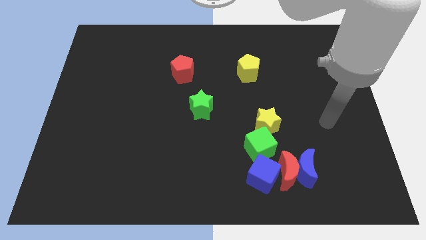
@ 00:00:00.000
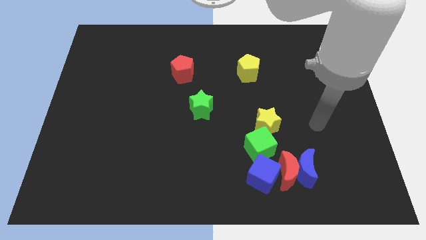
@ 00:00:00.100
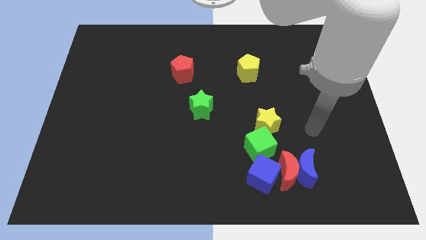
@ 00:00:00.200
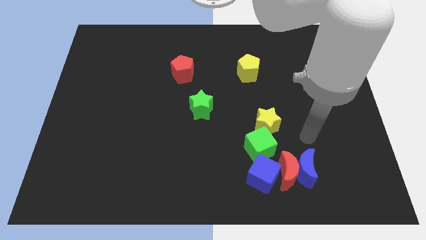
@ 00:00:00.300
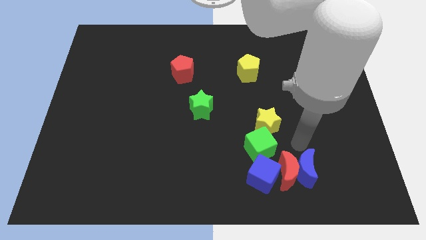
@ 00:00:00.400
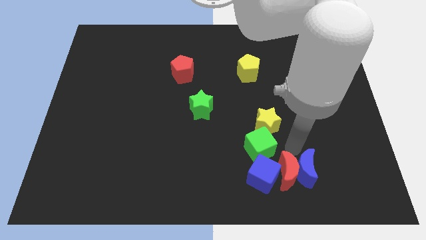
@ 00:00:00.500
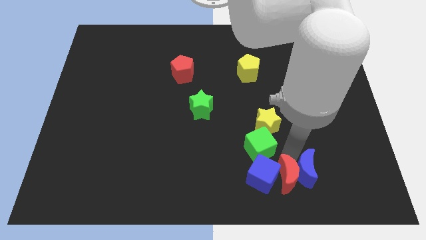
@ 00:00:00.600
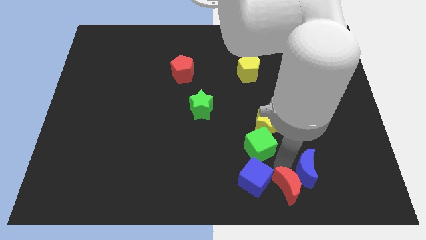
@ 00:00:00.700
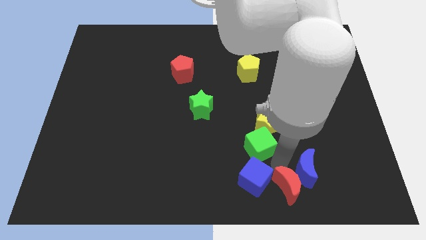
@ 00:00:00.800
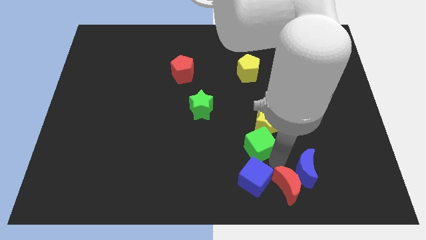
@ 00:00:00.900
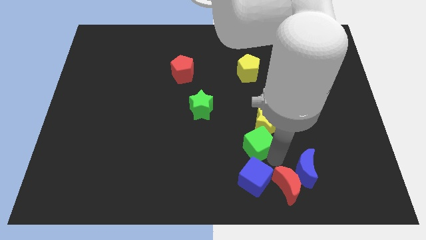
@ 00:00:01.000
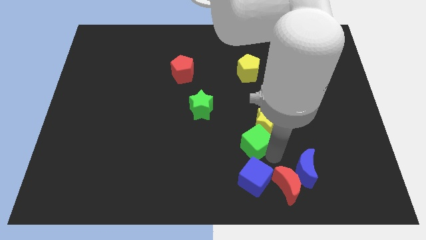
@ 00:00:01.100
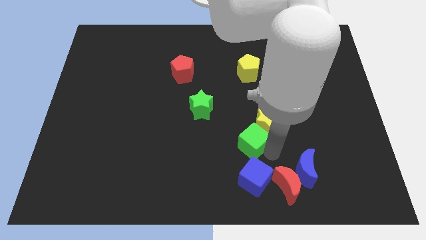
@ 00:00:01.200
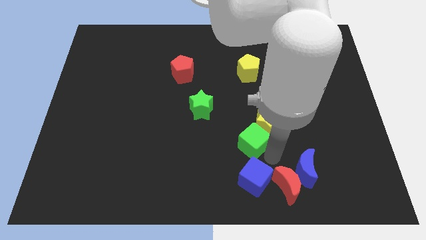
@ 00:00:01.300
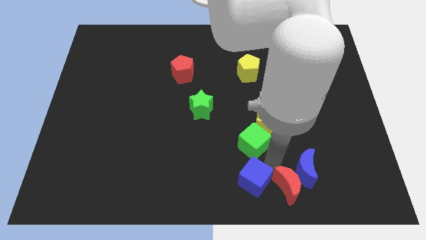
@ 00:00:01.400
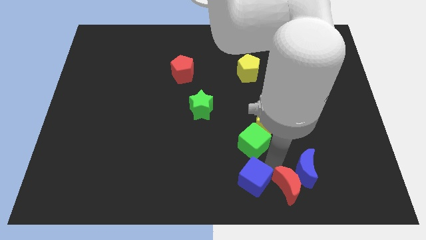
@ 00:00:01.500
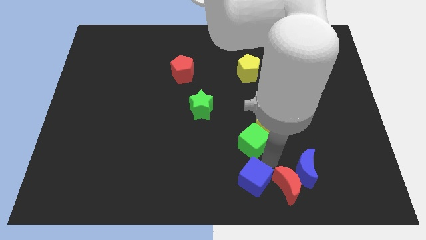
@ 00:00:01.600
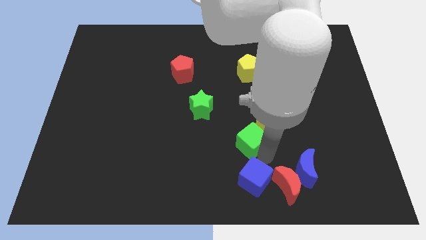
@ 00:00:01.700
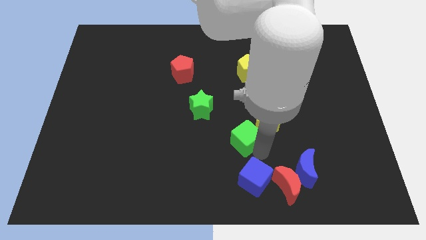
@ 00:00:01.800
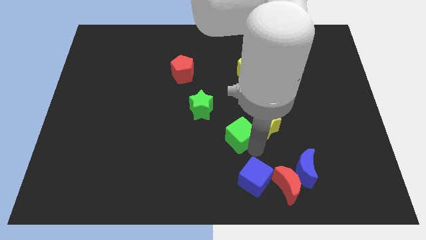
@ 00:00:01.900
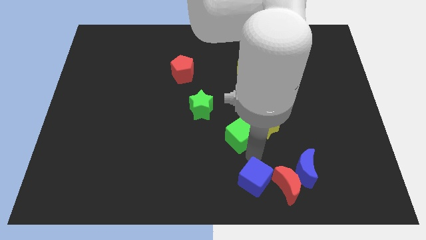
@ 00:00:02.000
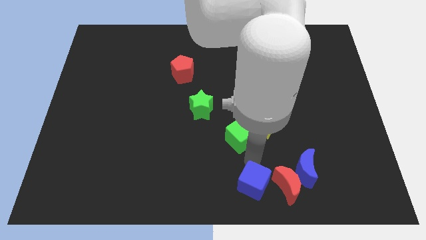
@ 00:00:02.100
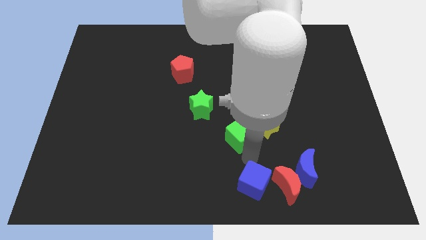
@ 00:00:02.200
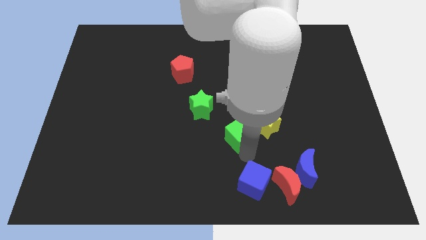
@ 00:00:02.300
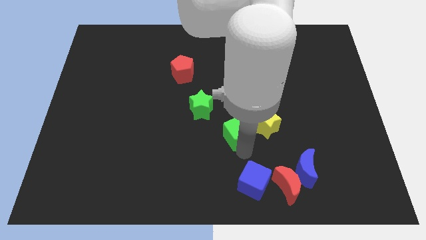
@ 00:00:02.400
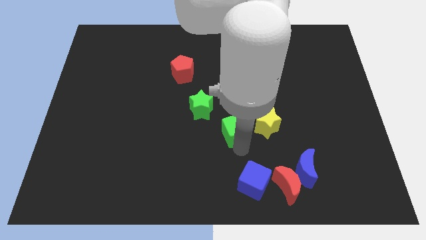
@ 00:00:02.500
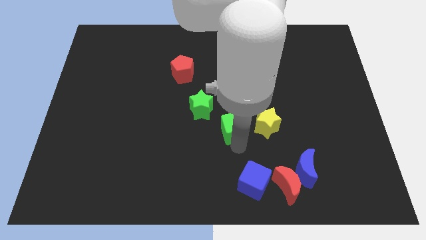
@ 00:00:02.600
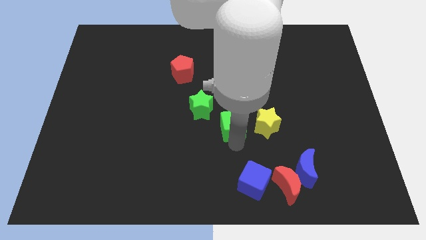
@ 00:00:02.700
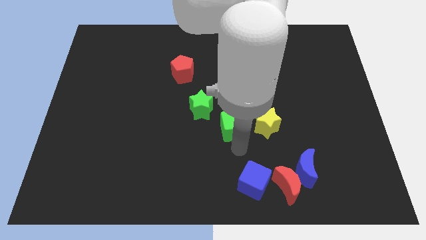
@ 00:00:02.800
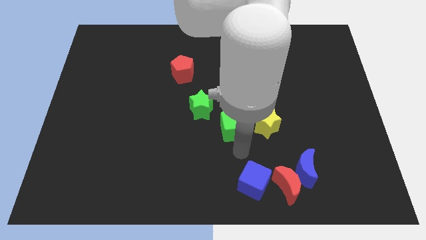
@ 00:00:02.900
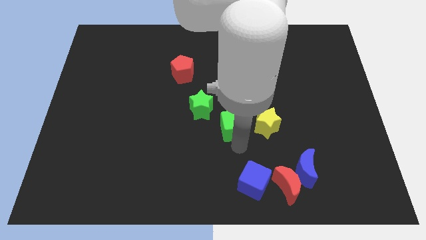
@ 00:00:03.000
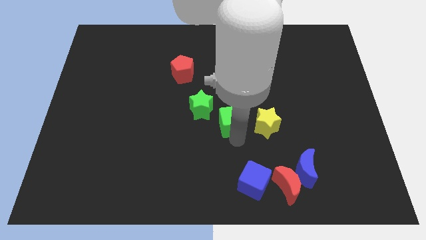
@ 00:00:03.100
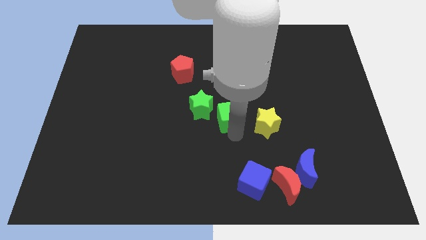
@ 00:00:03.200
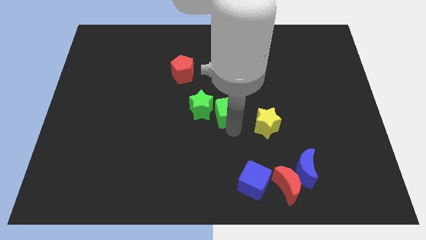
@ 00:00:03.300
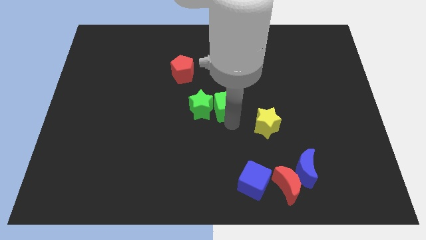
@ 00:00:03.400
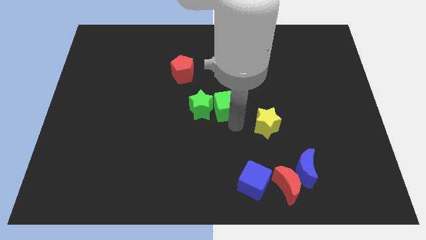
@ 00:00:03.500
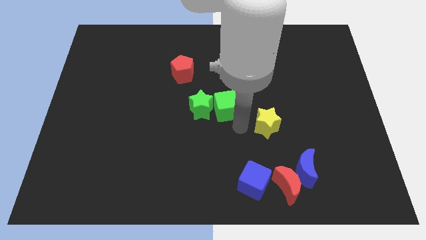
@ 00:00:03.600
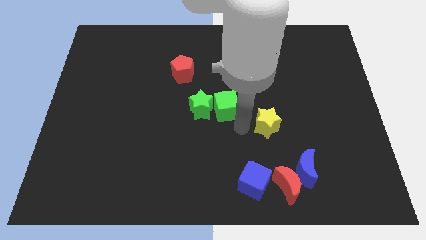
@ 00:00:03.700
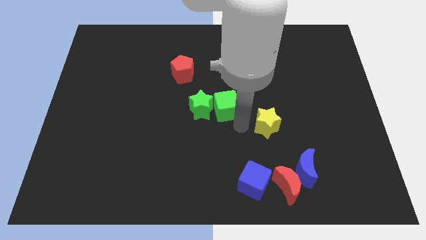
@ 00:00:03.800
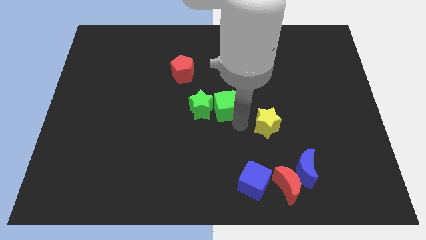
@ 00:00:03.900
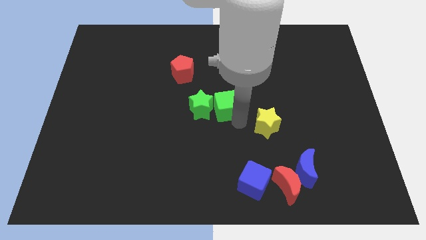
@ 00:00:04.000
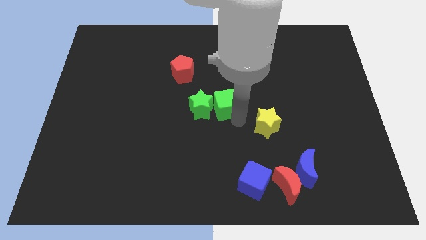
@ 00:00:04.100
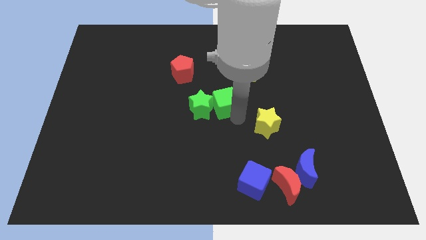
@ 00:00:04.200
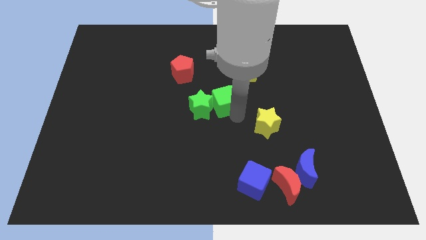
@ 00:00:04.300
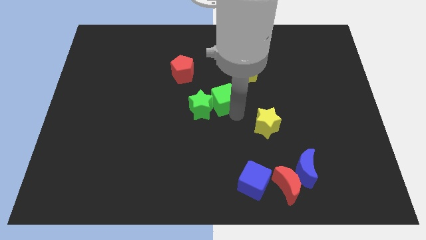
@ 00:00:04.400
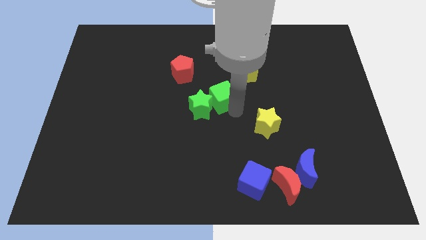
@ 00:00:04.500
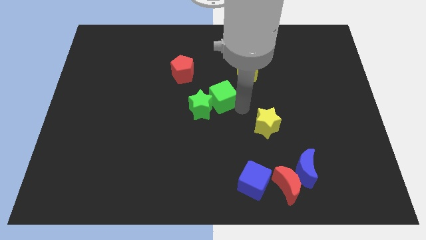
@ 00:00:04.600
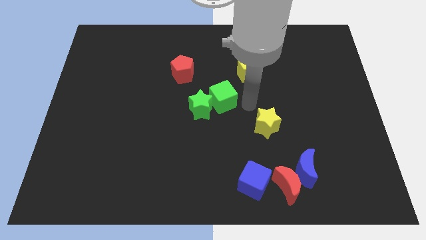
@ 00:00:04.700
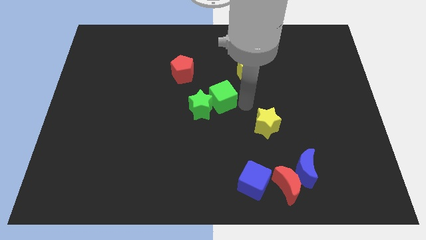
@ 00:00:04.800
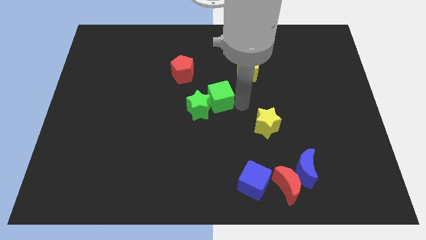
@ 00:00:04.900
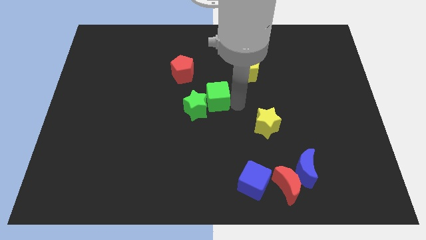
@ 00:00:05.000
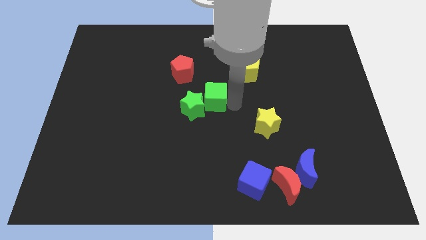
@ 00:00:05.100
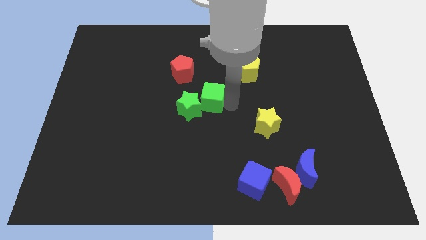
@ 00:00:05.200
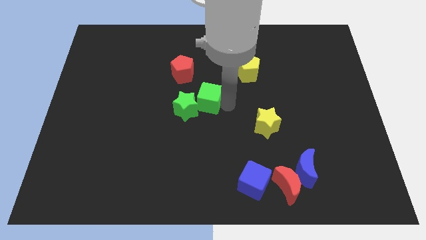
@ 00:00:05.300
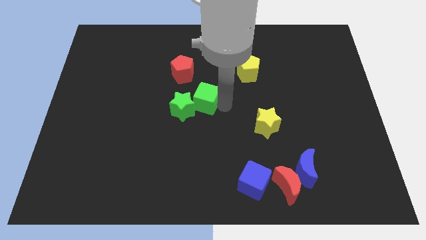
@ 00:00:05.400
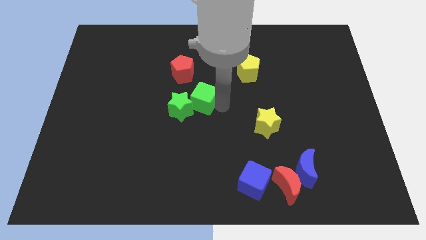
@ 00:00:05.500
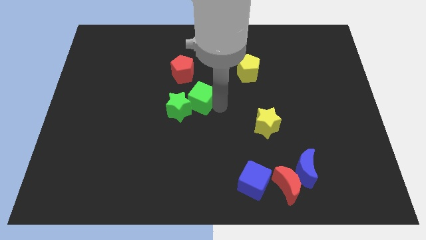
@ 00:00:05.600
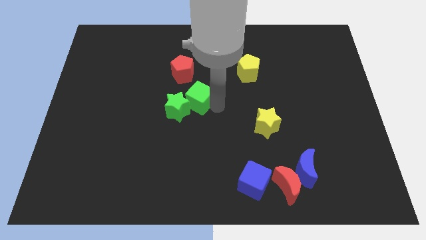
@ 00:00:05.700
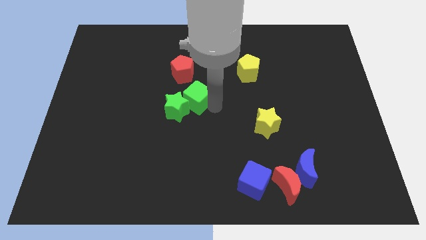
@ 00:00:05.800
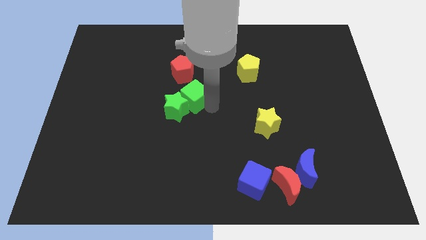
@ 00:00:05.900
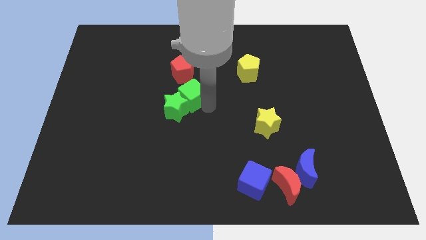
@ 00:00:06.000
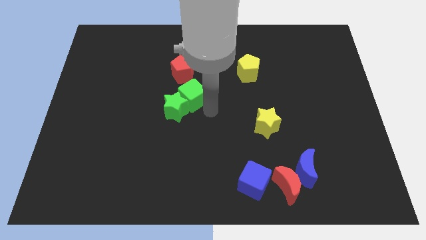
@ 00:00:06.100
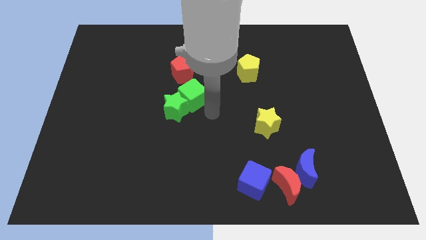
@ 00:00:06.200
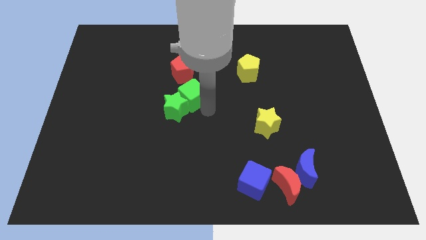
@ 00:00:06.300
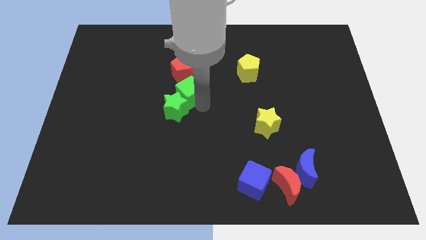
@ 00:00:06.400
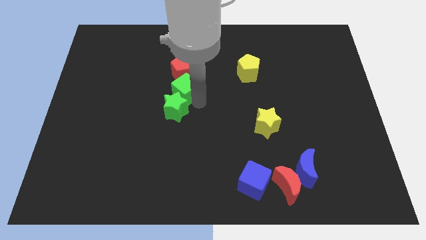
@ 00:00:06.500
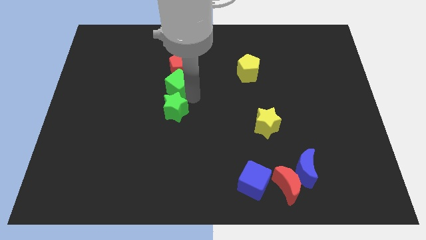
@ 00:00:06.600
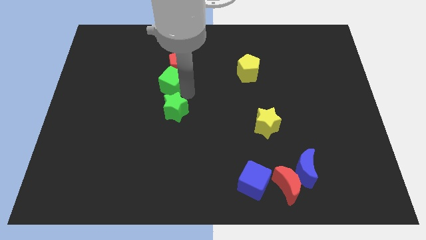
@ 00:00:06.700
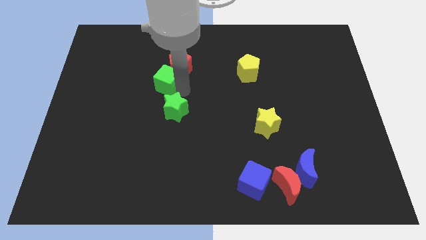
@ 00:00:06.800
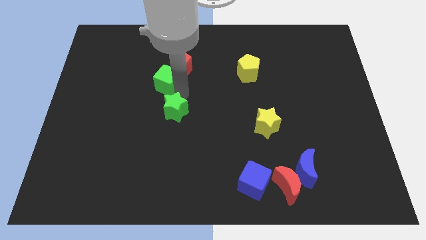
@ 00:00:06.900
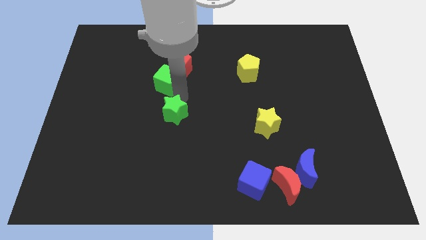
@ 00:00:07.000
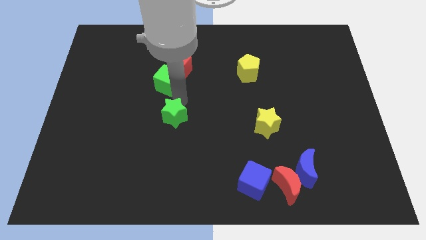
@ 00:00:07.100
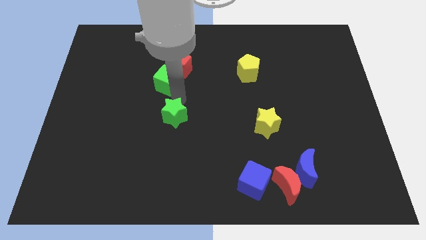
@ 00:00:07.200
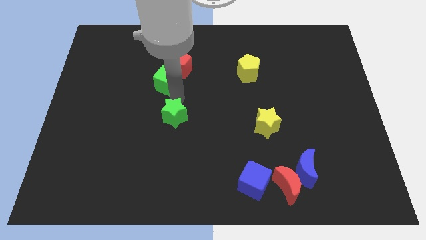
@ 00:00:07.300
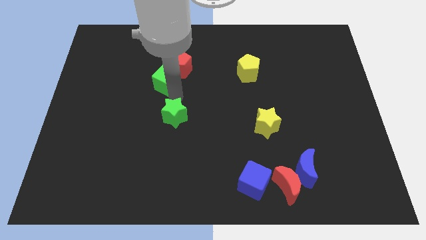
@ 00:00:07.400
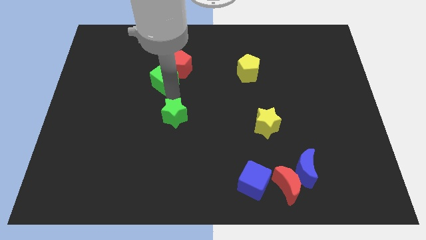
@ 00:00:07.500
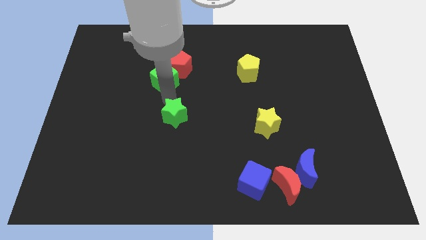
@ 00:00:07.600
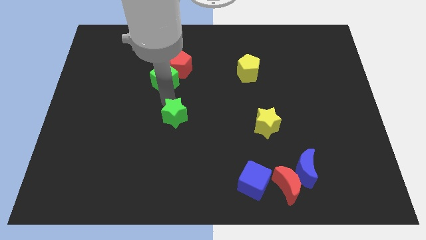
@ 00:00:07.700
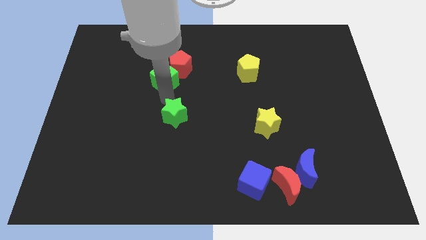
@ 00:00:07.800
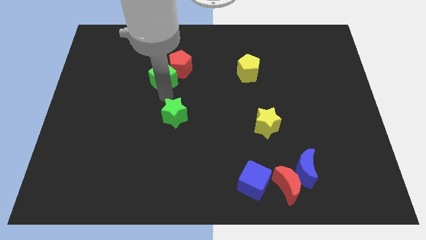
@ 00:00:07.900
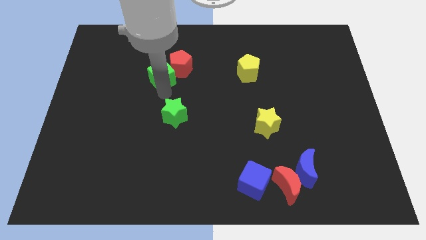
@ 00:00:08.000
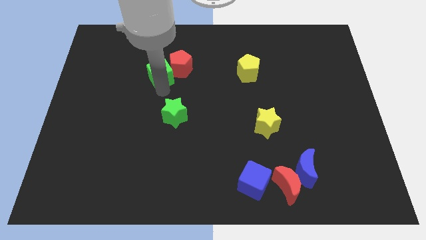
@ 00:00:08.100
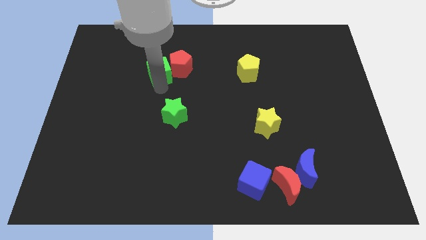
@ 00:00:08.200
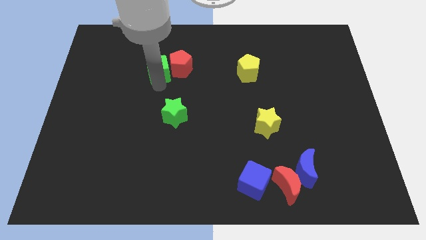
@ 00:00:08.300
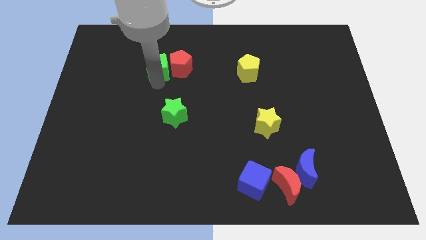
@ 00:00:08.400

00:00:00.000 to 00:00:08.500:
put the green cube diagonally up and to the left of the red pentagon
